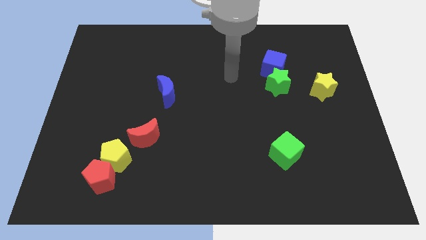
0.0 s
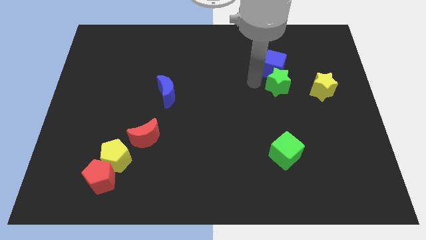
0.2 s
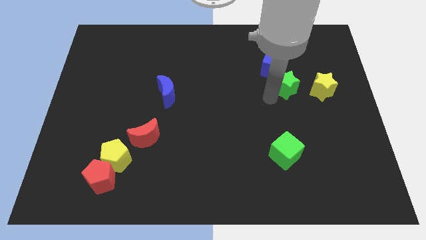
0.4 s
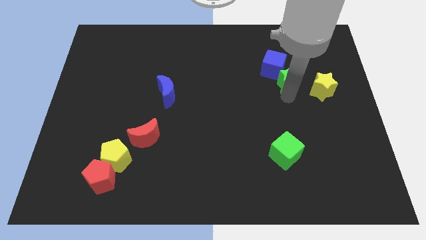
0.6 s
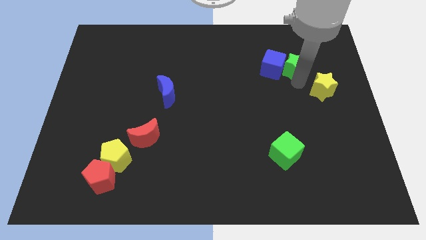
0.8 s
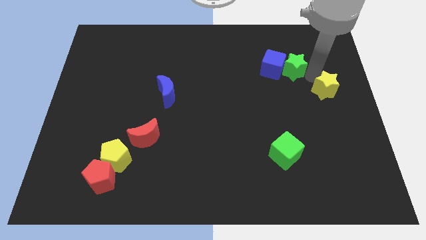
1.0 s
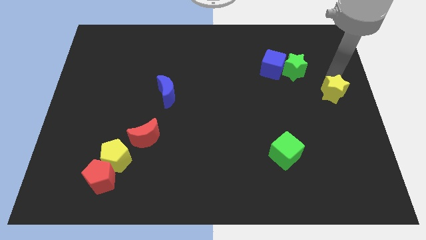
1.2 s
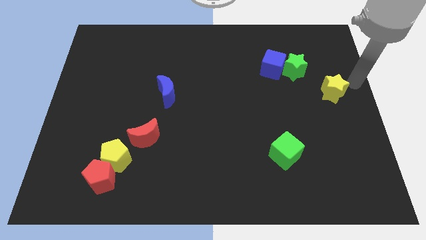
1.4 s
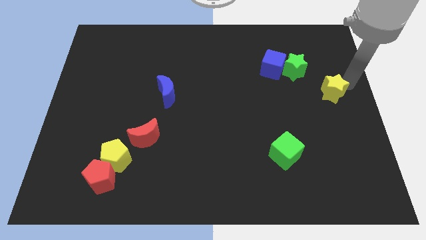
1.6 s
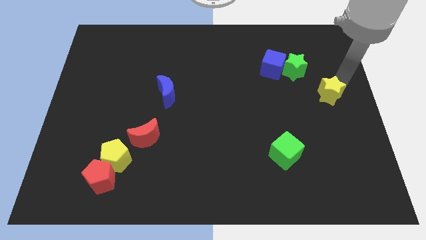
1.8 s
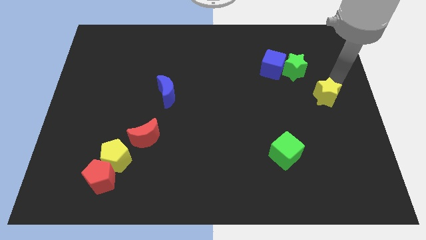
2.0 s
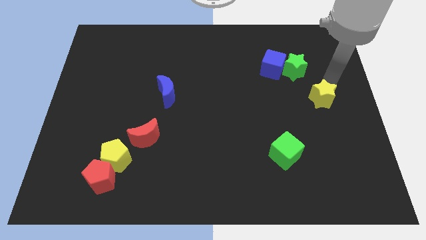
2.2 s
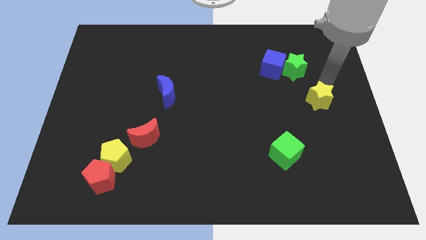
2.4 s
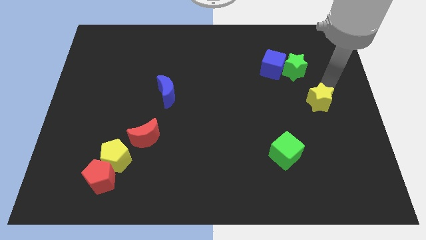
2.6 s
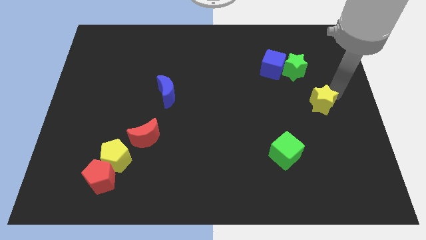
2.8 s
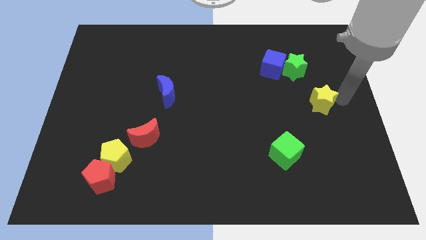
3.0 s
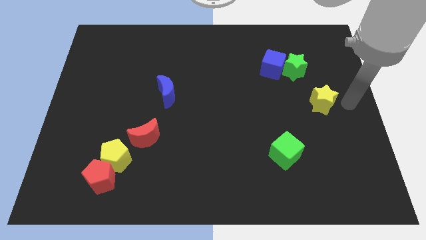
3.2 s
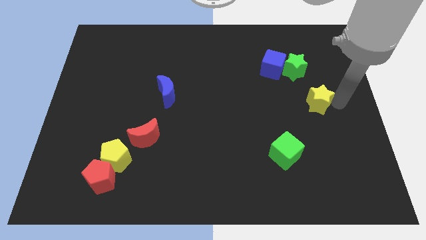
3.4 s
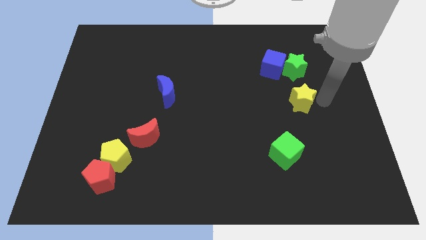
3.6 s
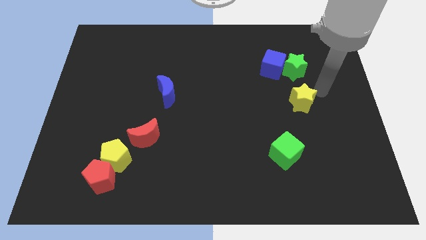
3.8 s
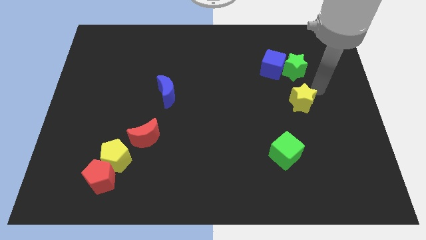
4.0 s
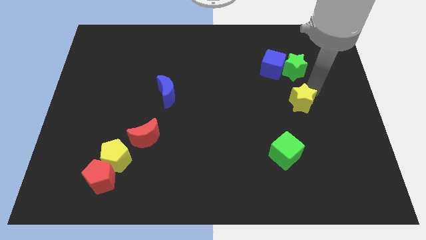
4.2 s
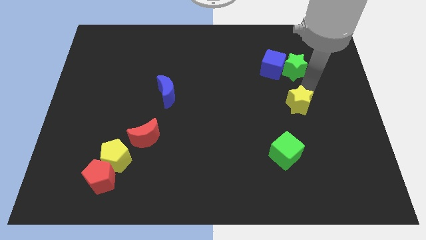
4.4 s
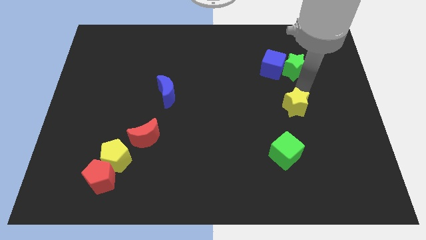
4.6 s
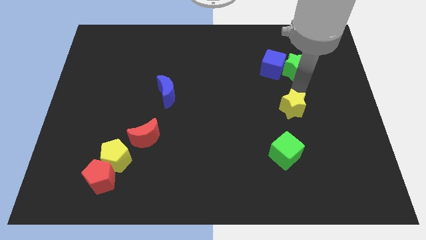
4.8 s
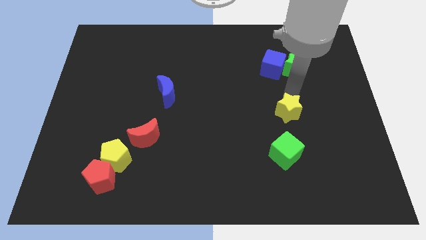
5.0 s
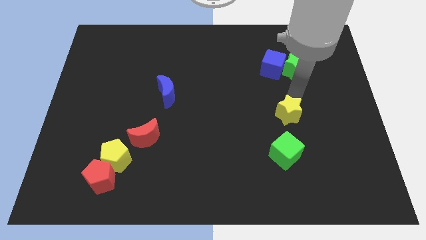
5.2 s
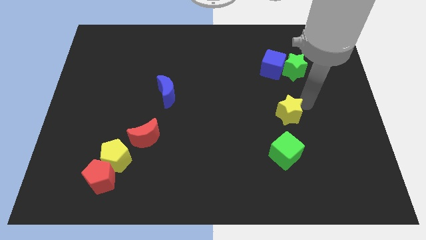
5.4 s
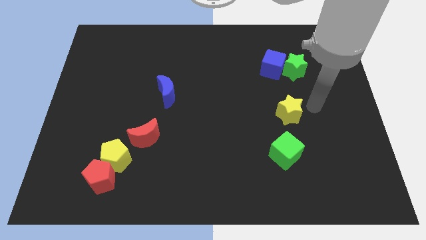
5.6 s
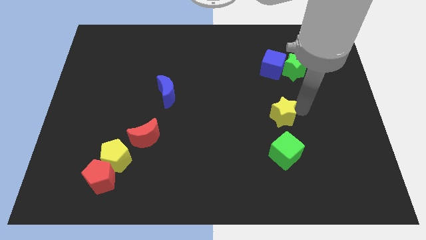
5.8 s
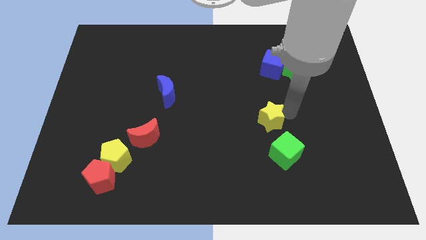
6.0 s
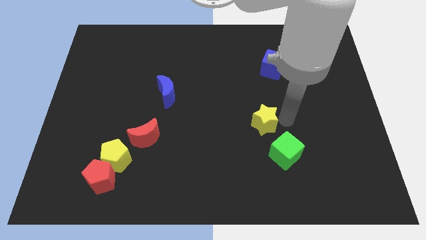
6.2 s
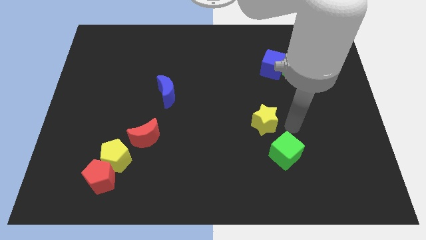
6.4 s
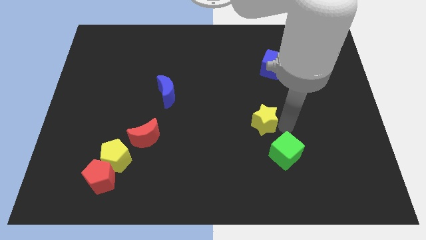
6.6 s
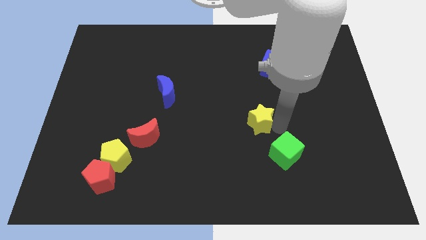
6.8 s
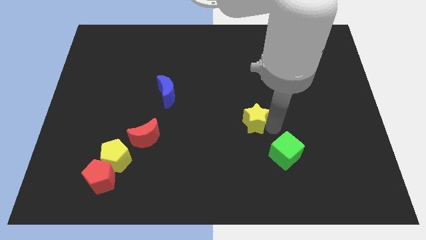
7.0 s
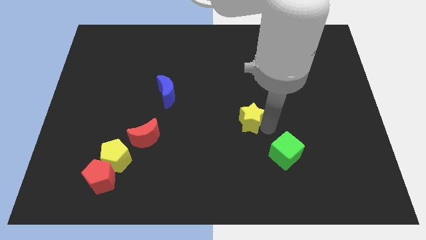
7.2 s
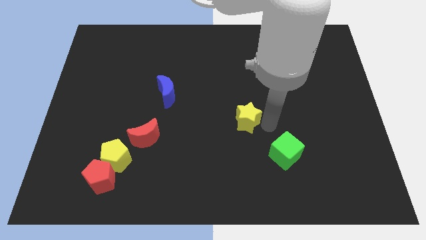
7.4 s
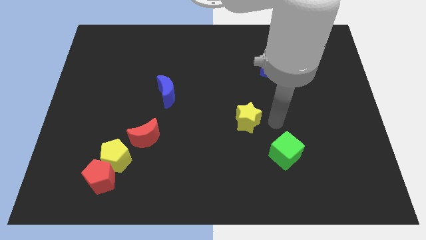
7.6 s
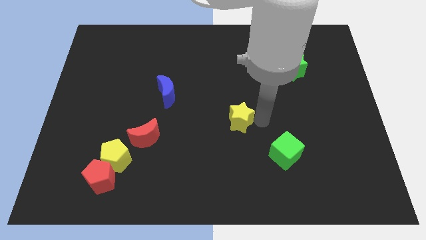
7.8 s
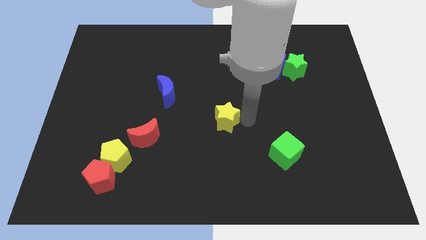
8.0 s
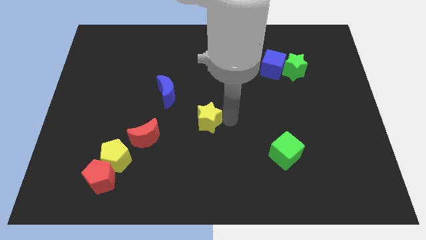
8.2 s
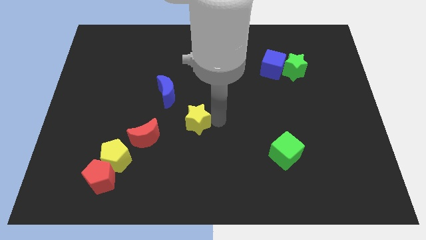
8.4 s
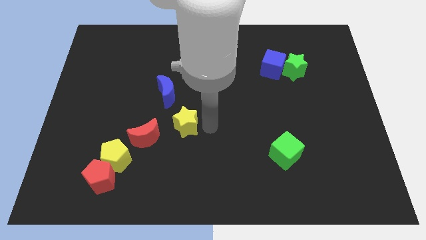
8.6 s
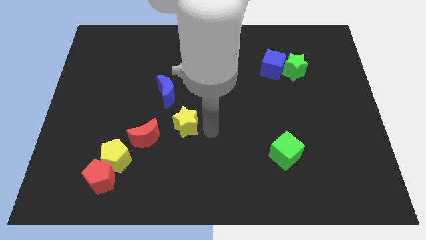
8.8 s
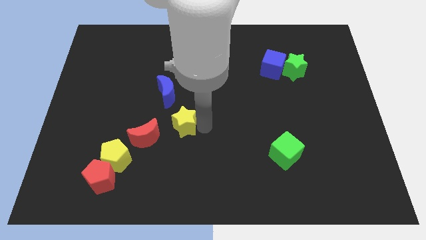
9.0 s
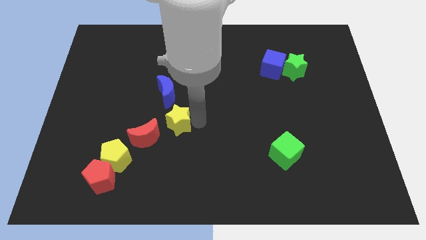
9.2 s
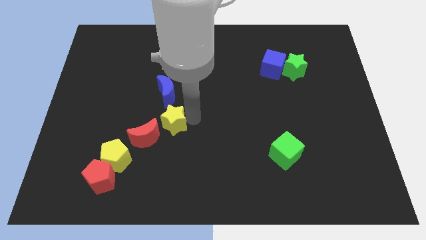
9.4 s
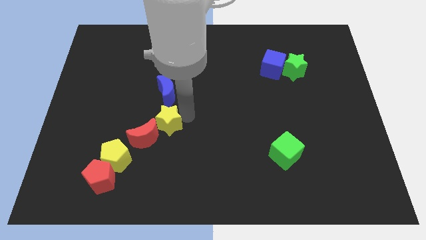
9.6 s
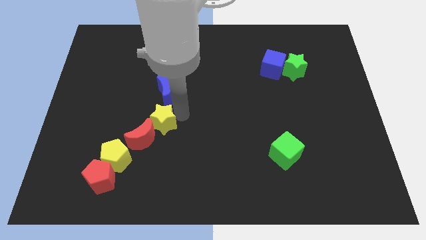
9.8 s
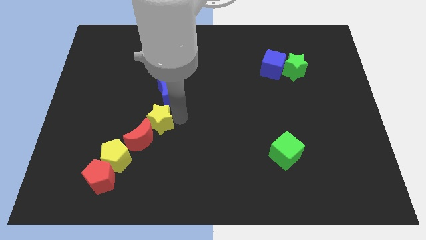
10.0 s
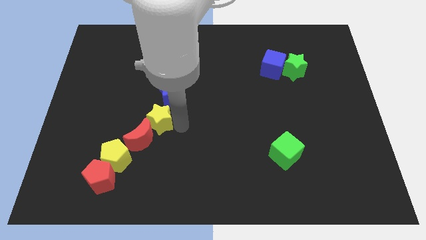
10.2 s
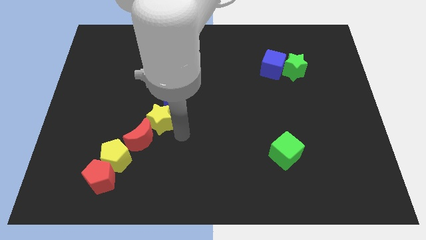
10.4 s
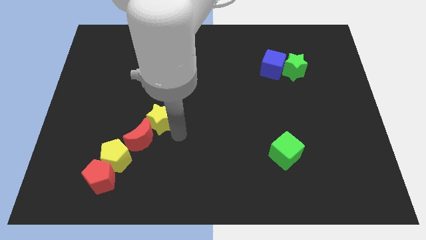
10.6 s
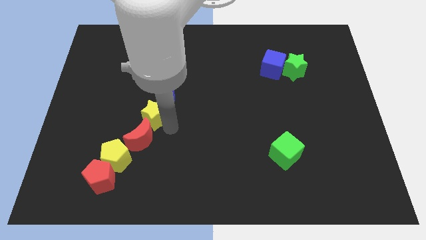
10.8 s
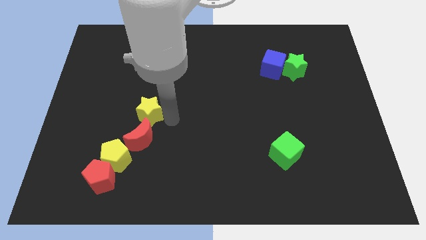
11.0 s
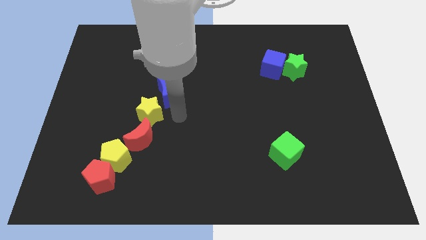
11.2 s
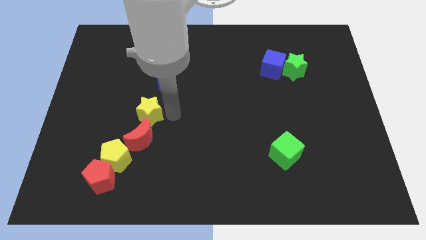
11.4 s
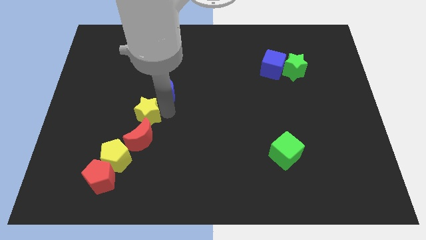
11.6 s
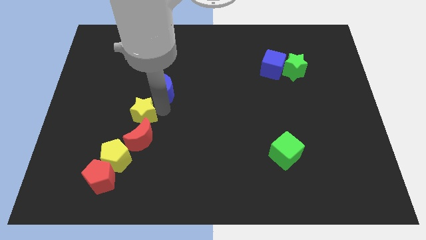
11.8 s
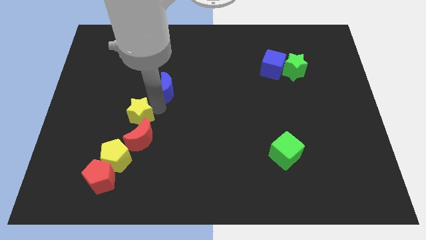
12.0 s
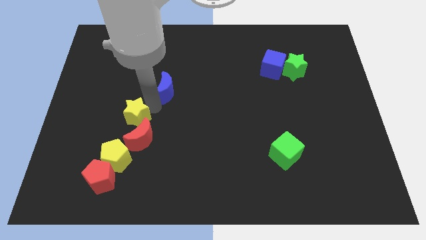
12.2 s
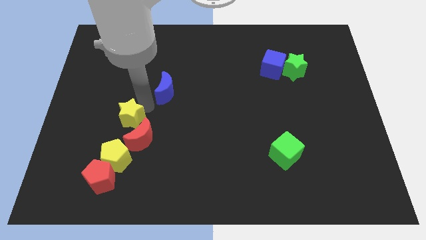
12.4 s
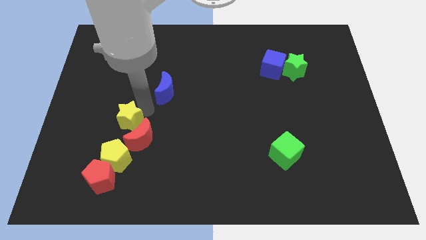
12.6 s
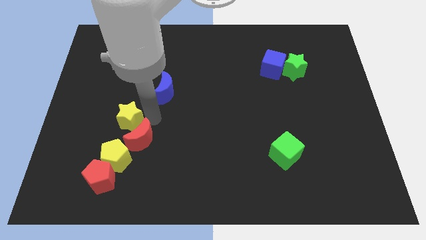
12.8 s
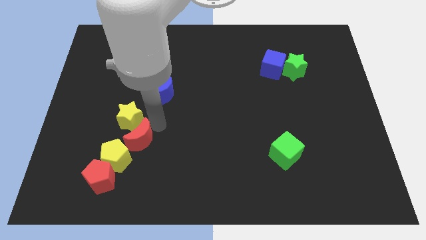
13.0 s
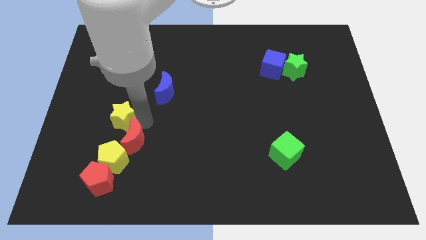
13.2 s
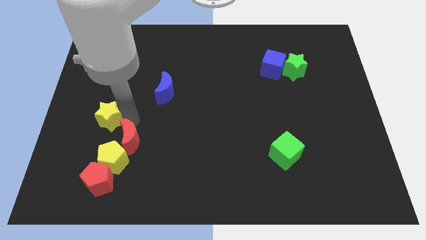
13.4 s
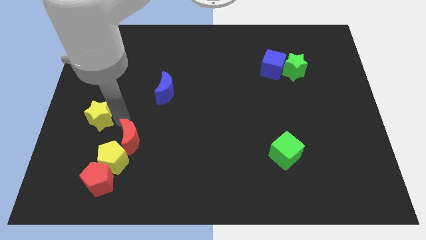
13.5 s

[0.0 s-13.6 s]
push the yellow star to the left side of the board
